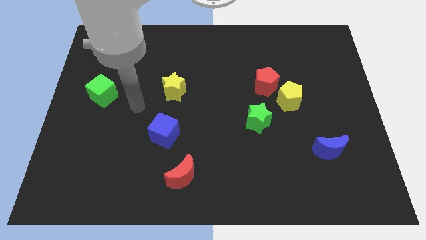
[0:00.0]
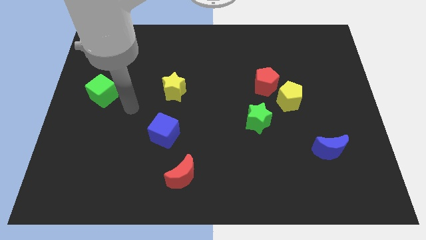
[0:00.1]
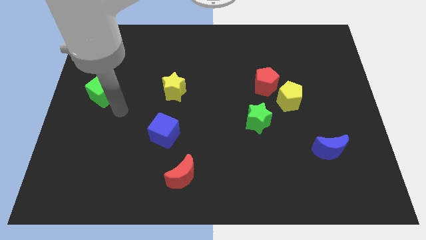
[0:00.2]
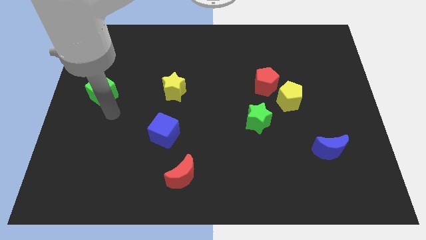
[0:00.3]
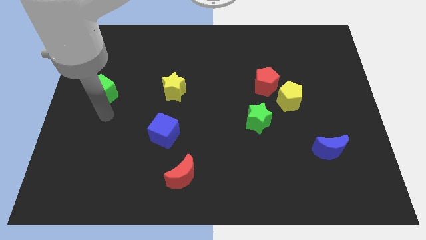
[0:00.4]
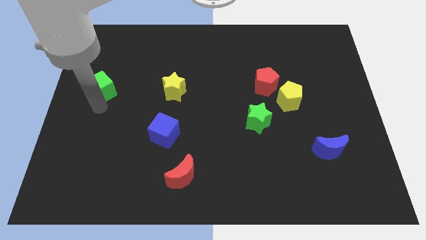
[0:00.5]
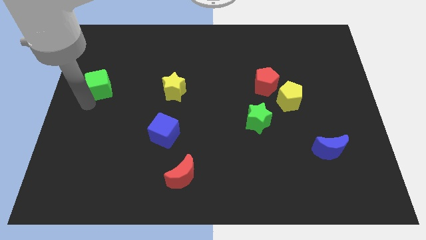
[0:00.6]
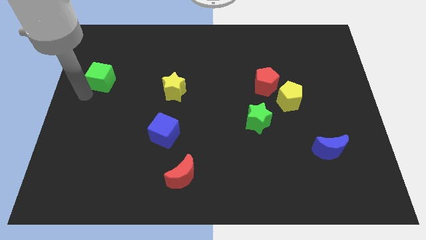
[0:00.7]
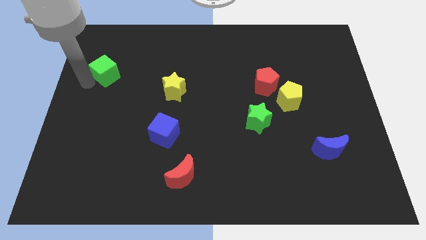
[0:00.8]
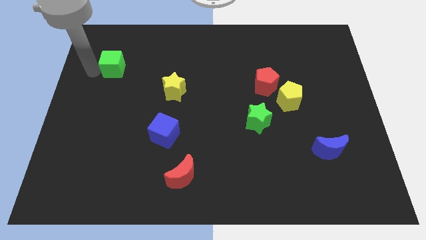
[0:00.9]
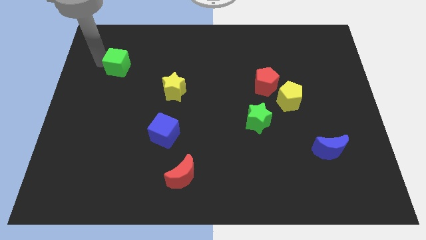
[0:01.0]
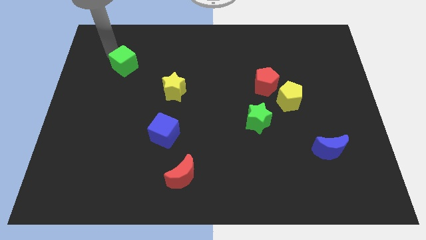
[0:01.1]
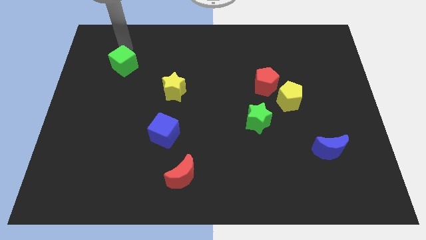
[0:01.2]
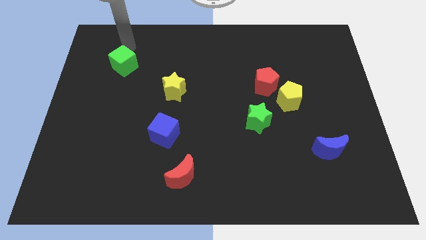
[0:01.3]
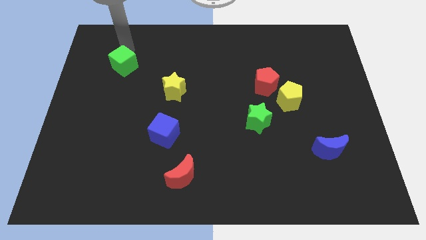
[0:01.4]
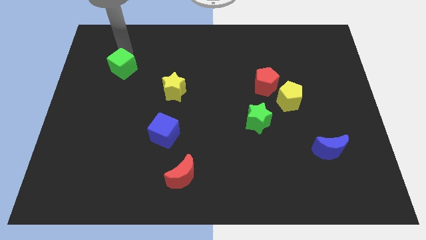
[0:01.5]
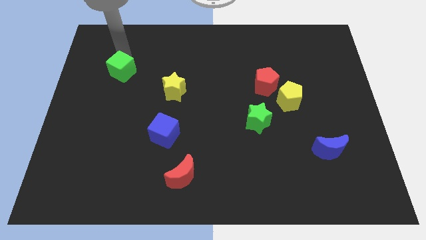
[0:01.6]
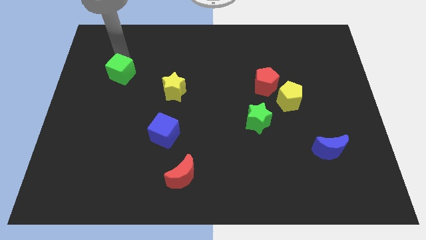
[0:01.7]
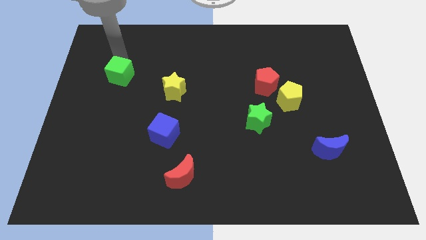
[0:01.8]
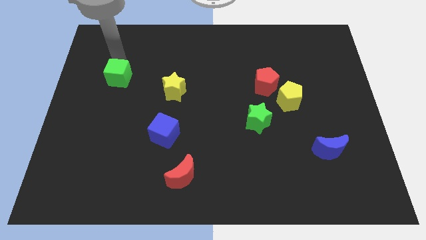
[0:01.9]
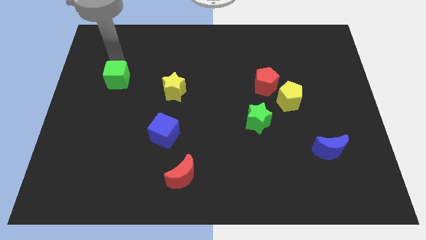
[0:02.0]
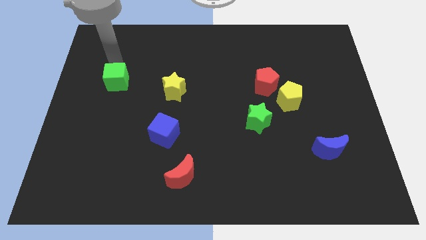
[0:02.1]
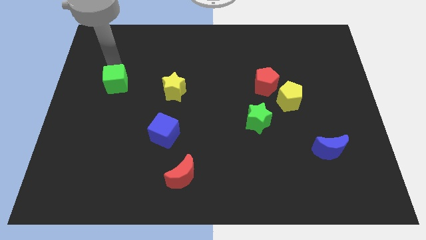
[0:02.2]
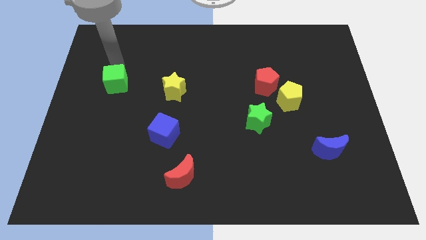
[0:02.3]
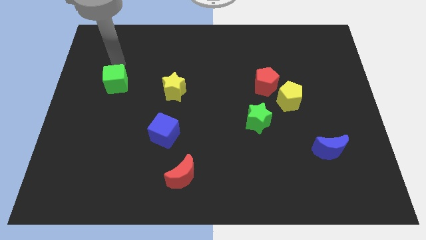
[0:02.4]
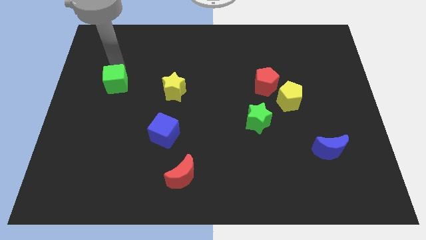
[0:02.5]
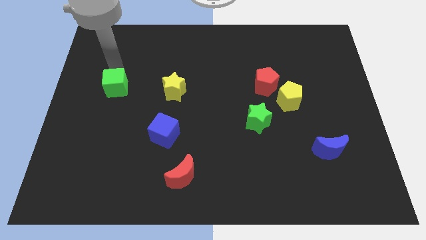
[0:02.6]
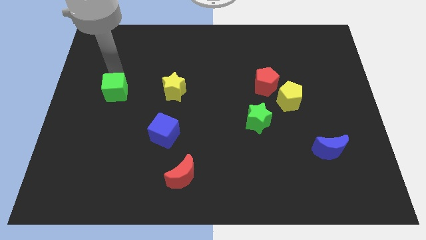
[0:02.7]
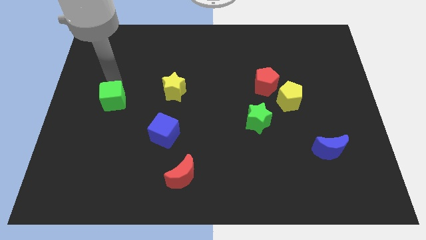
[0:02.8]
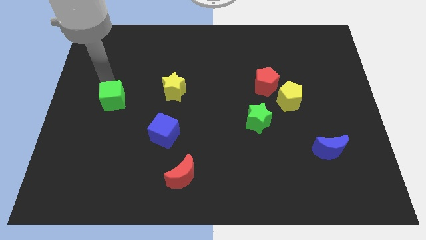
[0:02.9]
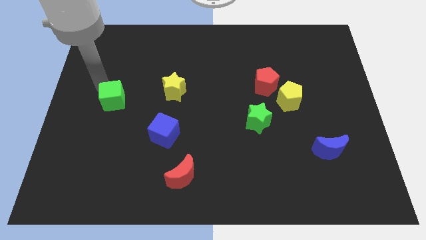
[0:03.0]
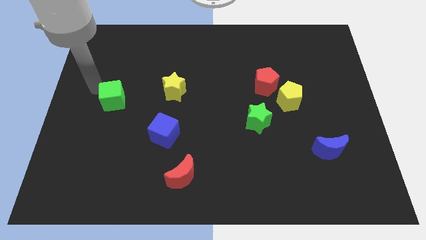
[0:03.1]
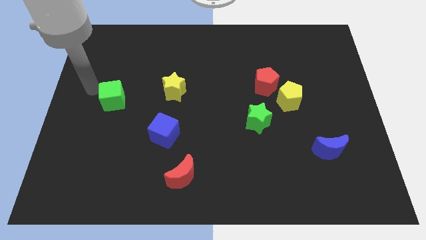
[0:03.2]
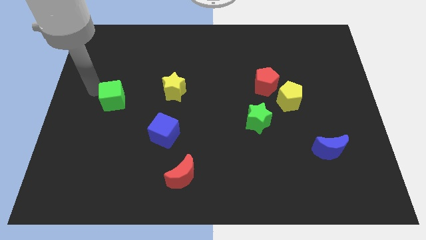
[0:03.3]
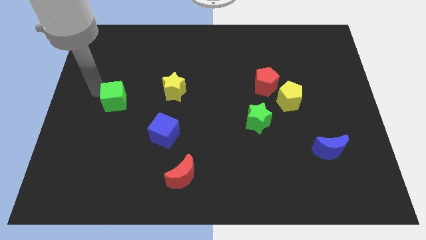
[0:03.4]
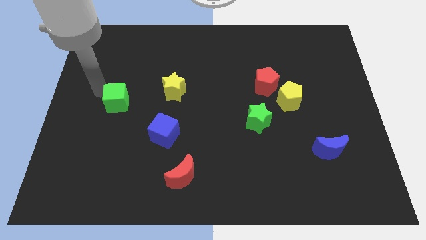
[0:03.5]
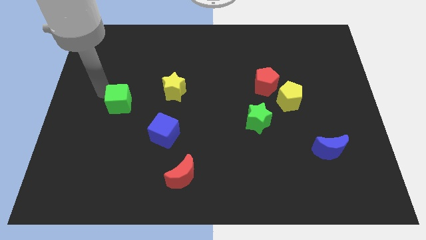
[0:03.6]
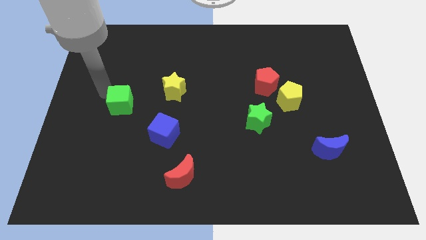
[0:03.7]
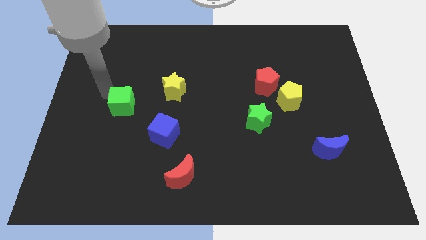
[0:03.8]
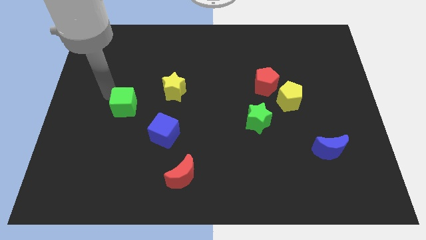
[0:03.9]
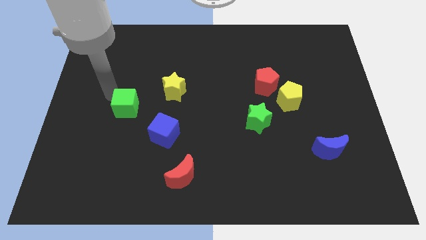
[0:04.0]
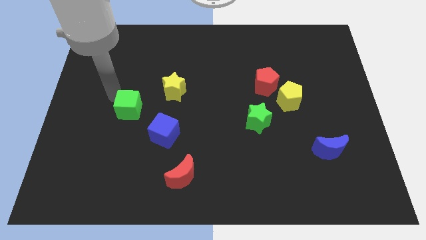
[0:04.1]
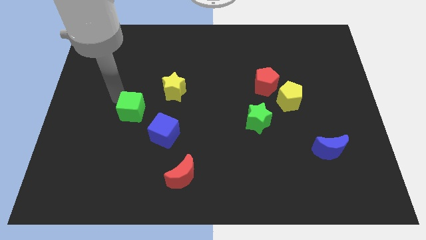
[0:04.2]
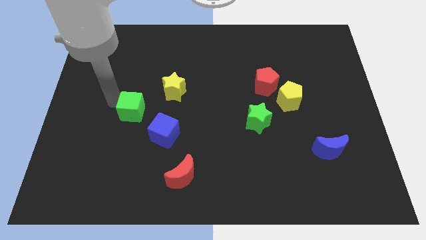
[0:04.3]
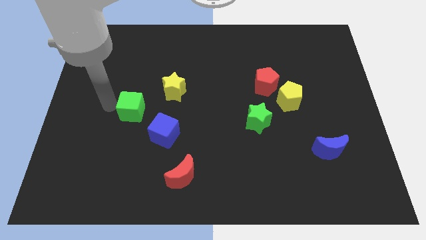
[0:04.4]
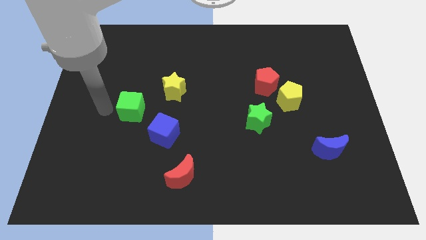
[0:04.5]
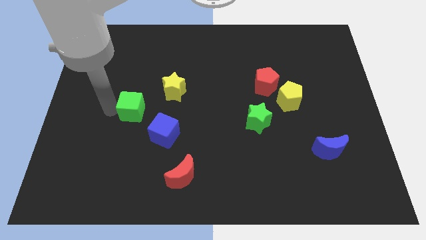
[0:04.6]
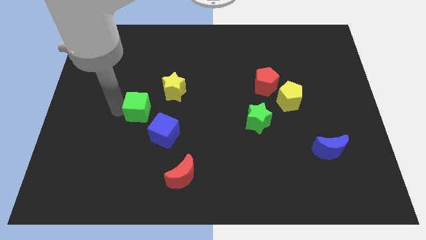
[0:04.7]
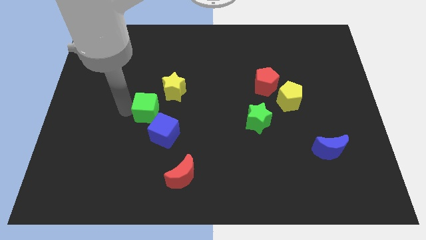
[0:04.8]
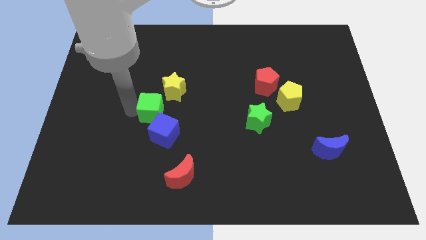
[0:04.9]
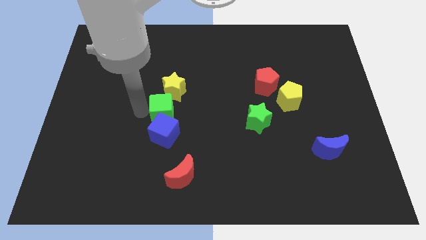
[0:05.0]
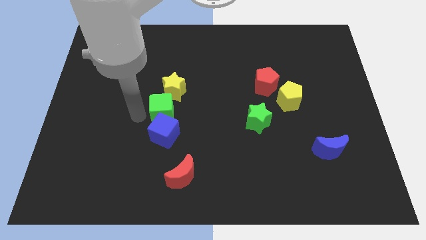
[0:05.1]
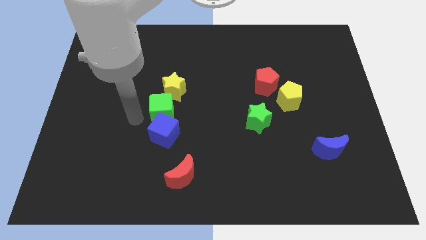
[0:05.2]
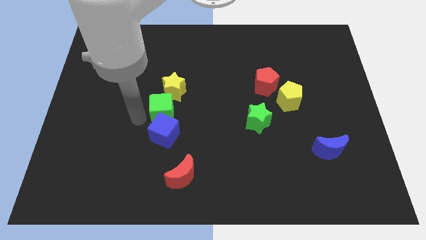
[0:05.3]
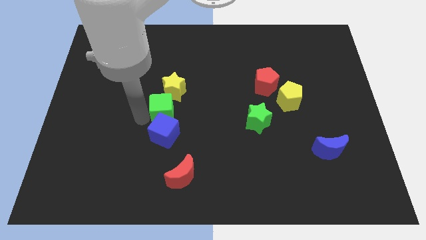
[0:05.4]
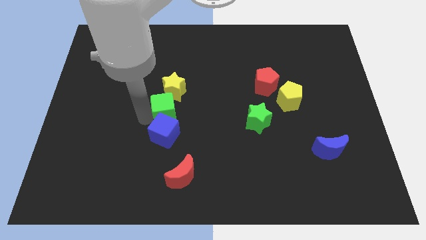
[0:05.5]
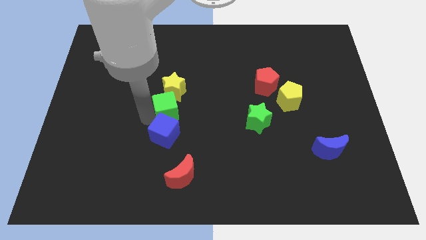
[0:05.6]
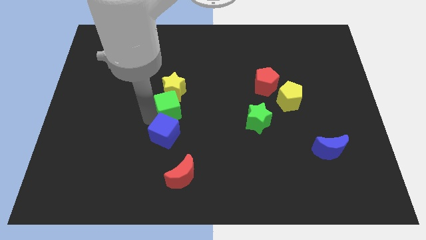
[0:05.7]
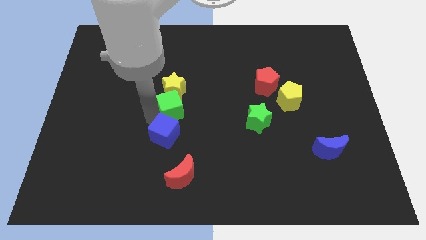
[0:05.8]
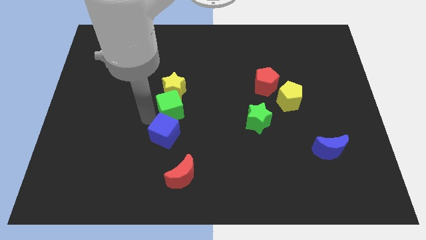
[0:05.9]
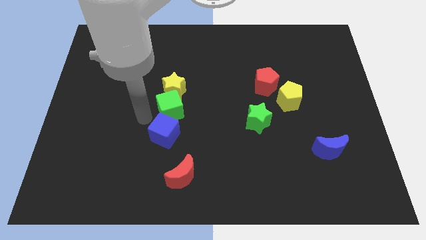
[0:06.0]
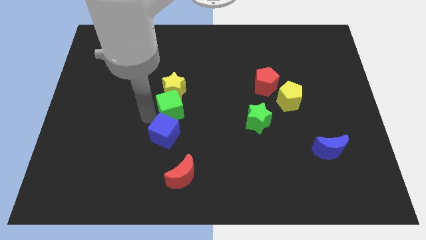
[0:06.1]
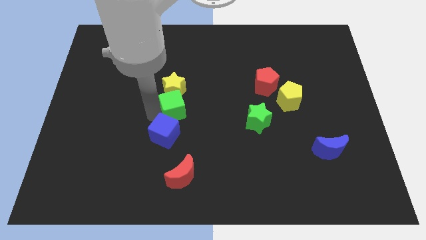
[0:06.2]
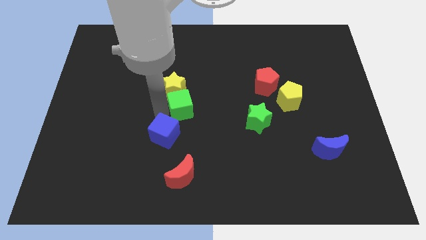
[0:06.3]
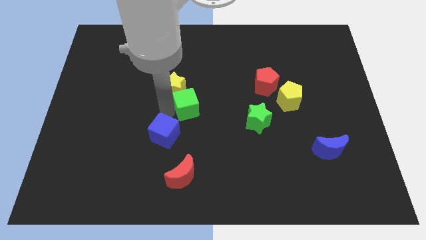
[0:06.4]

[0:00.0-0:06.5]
push the green cube right

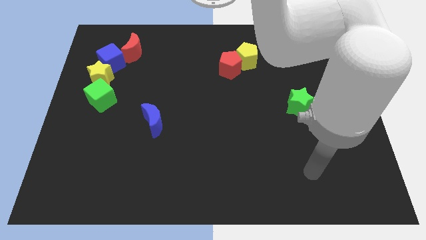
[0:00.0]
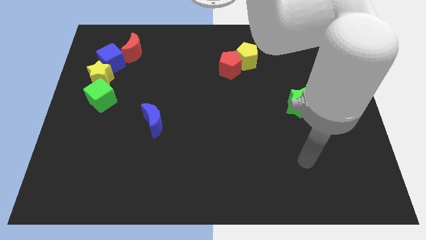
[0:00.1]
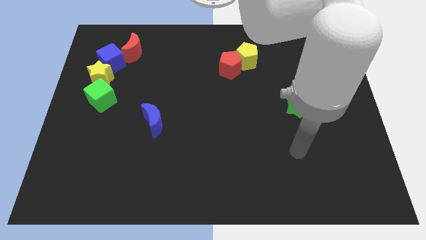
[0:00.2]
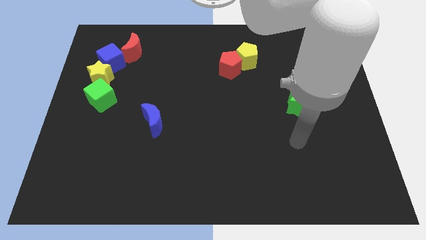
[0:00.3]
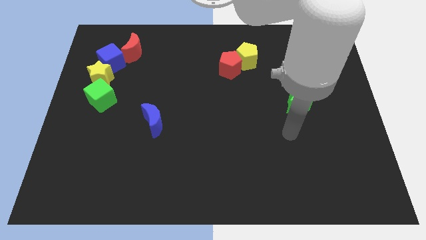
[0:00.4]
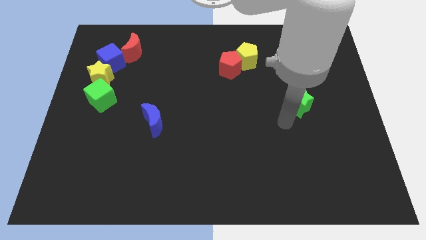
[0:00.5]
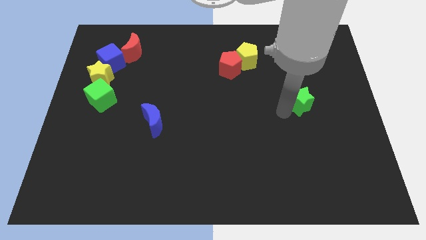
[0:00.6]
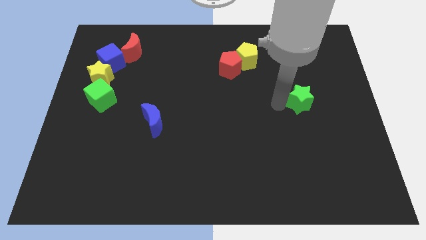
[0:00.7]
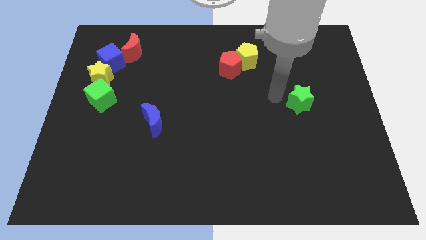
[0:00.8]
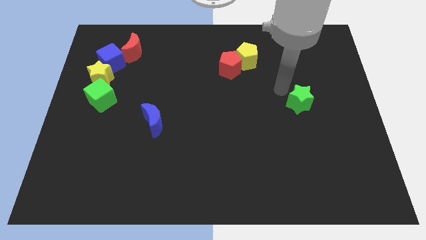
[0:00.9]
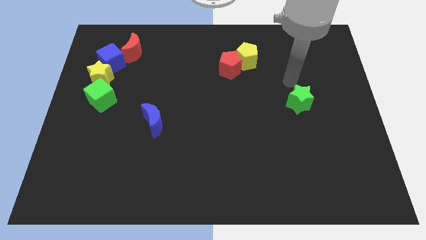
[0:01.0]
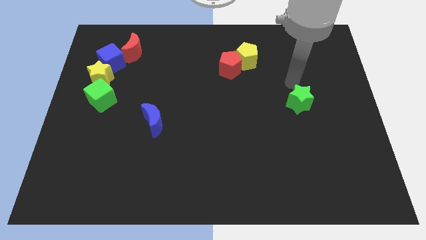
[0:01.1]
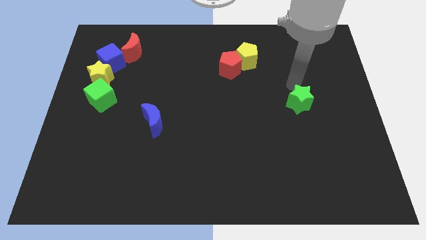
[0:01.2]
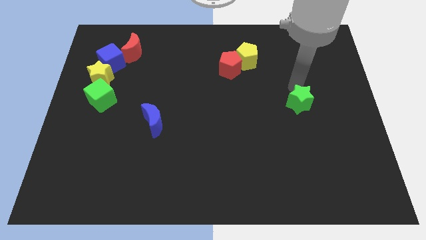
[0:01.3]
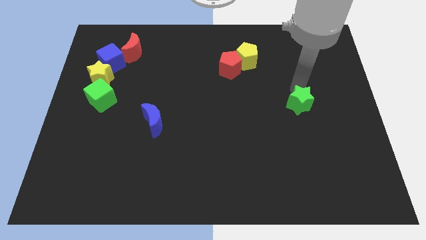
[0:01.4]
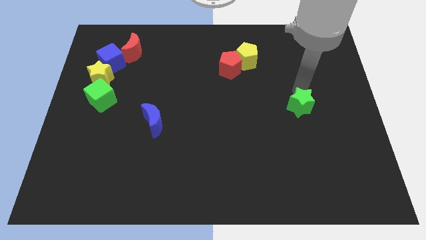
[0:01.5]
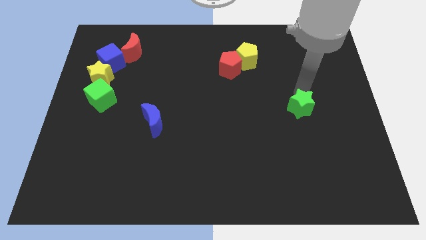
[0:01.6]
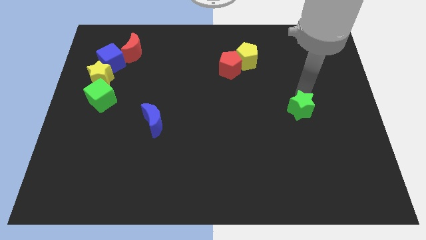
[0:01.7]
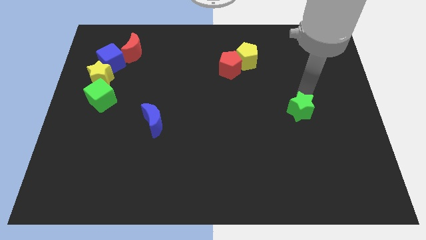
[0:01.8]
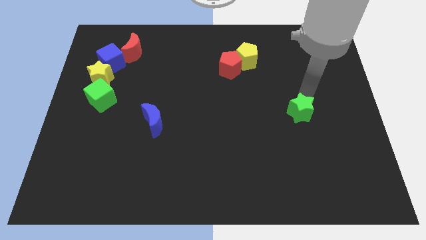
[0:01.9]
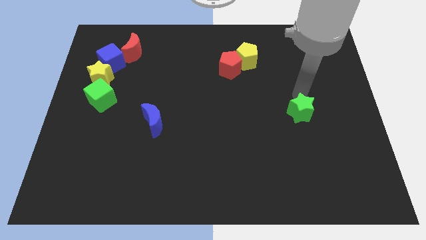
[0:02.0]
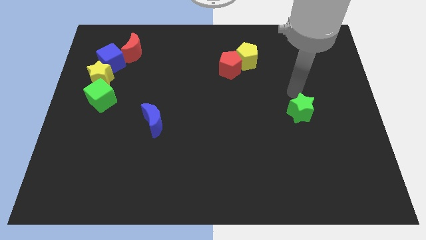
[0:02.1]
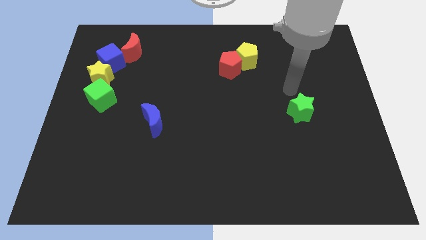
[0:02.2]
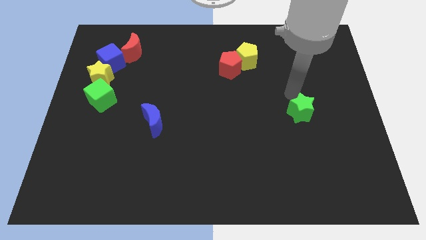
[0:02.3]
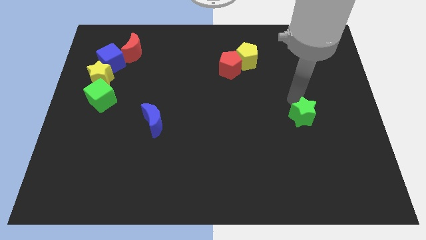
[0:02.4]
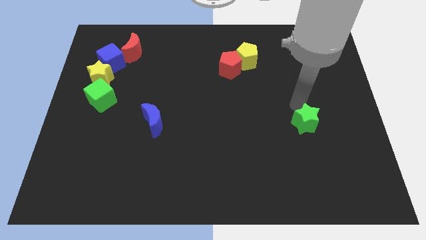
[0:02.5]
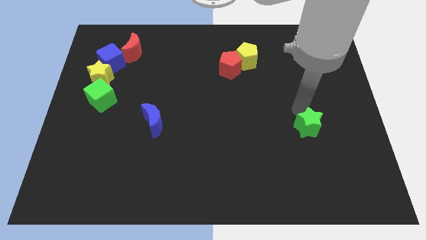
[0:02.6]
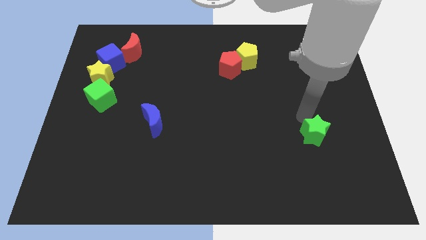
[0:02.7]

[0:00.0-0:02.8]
push the green star a little bit downwards
